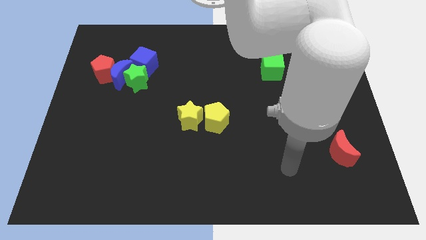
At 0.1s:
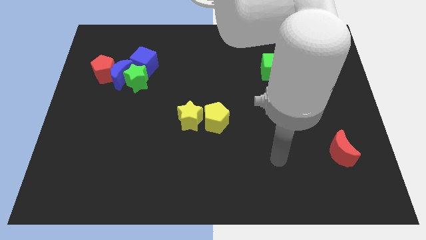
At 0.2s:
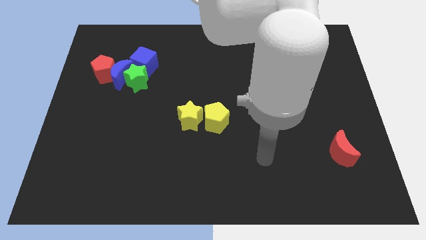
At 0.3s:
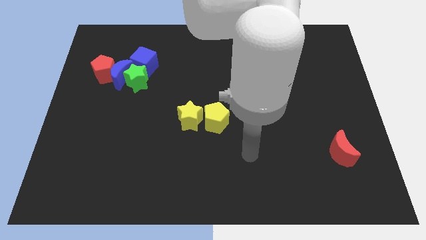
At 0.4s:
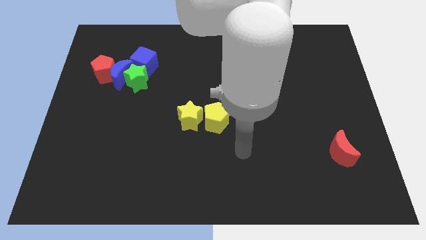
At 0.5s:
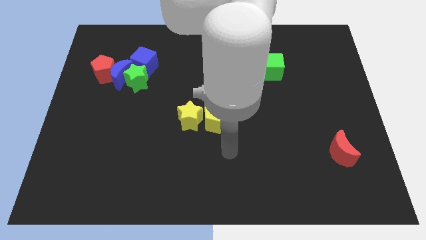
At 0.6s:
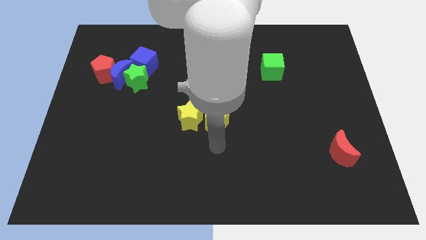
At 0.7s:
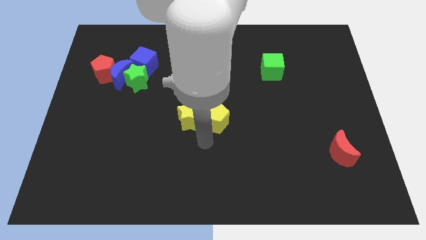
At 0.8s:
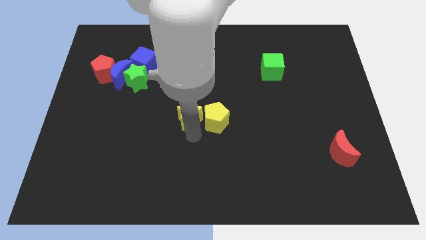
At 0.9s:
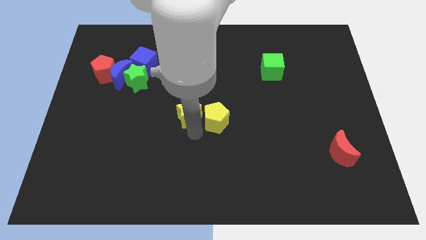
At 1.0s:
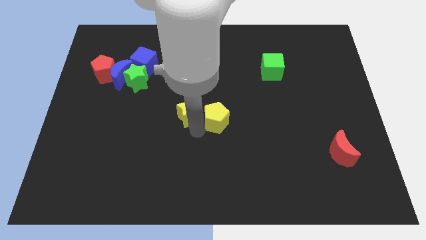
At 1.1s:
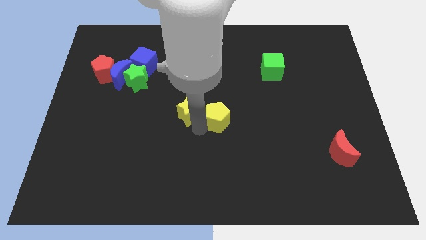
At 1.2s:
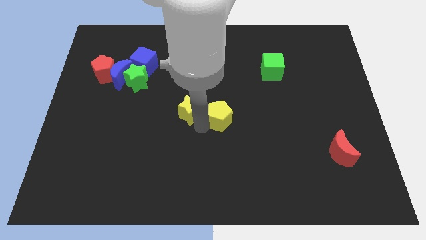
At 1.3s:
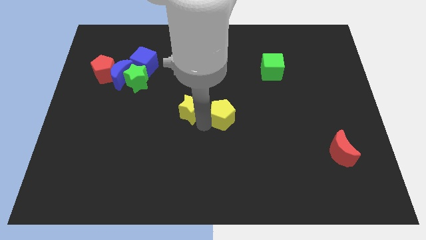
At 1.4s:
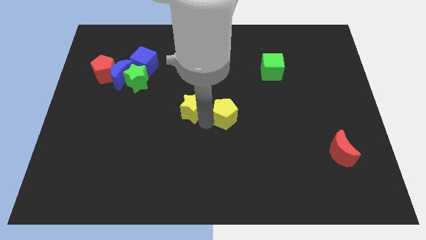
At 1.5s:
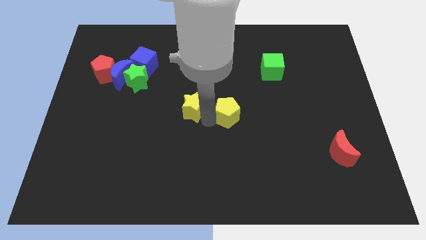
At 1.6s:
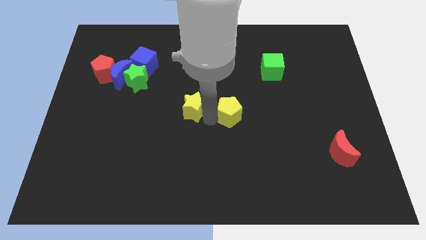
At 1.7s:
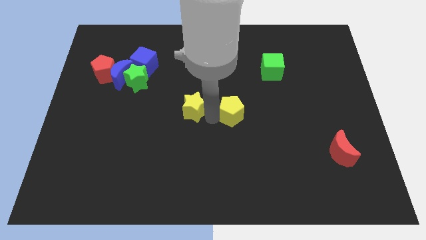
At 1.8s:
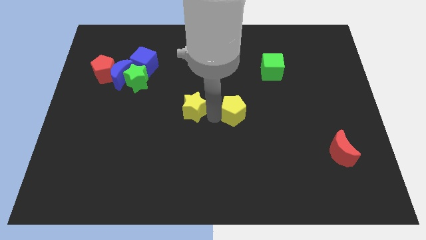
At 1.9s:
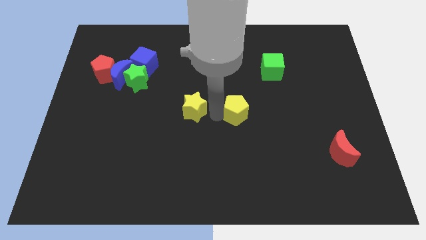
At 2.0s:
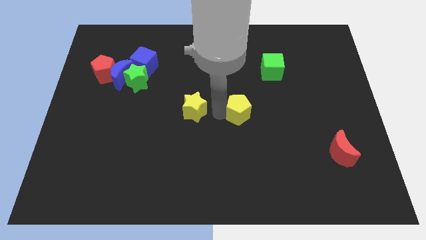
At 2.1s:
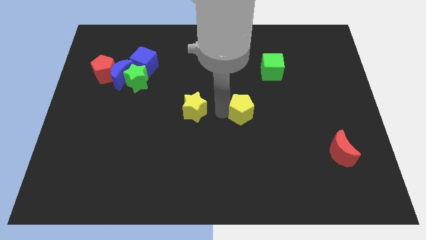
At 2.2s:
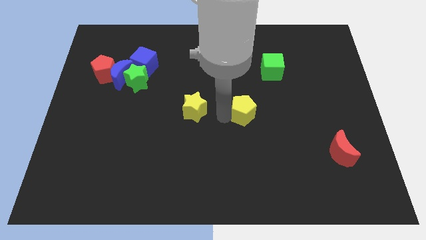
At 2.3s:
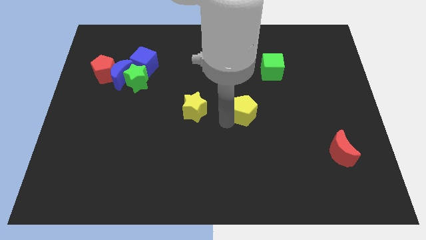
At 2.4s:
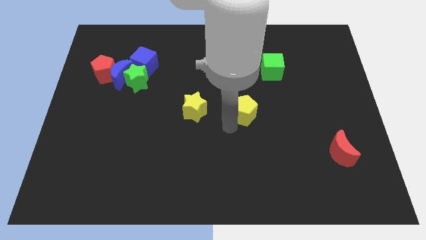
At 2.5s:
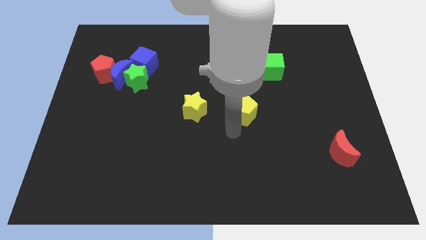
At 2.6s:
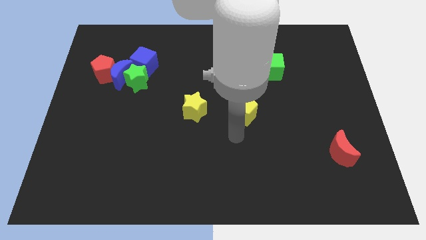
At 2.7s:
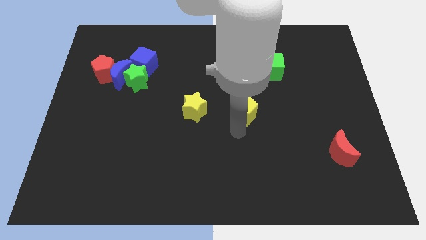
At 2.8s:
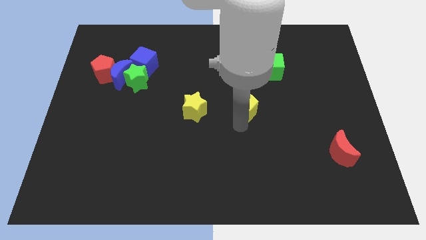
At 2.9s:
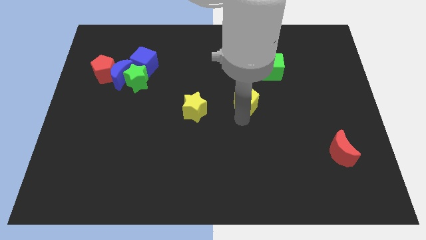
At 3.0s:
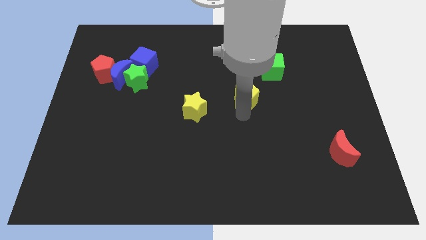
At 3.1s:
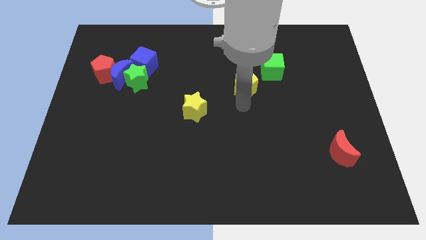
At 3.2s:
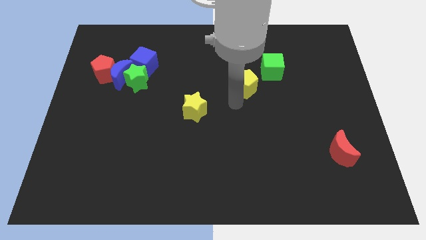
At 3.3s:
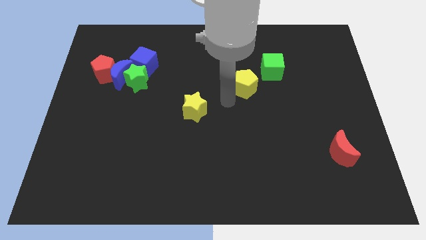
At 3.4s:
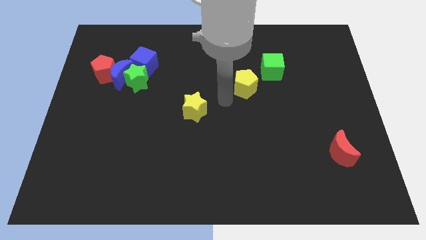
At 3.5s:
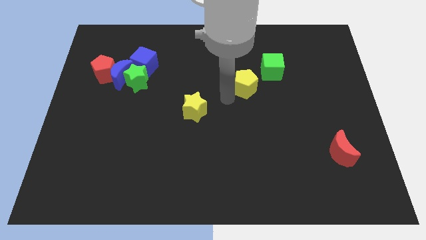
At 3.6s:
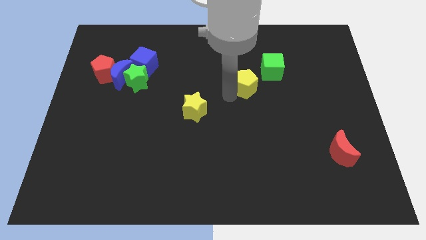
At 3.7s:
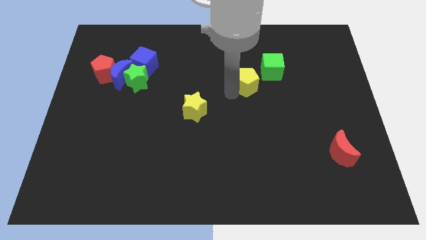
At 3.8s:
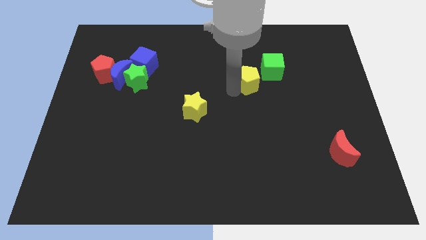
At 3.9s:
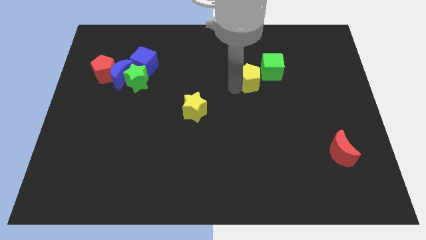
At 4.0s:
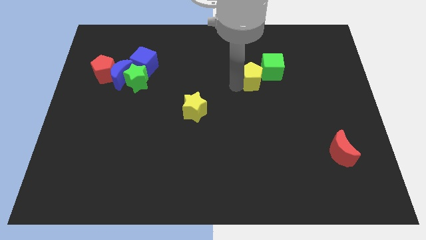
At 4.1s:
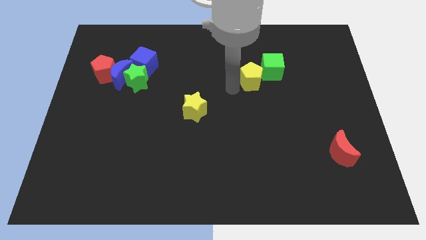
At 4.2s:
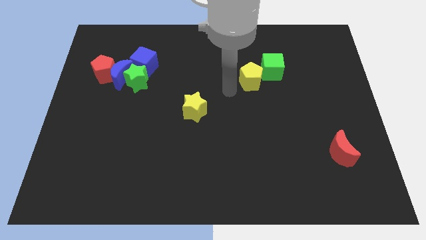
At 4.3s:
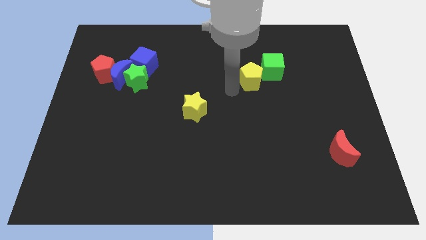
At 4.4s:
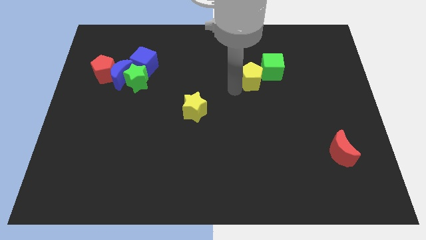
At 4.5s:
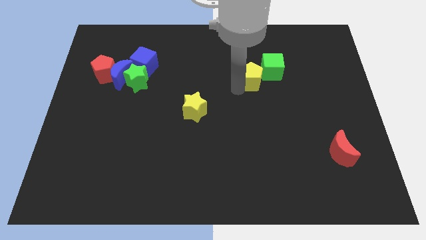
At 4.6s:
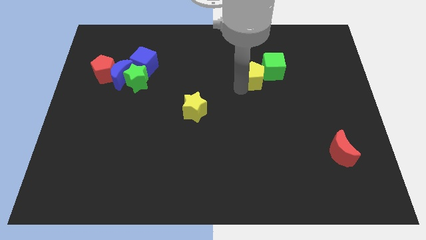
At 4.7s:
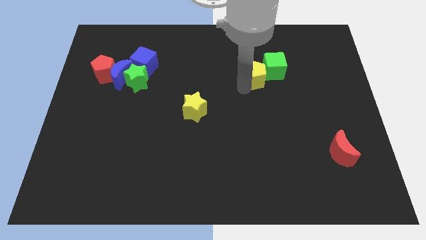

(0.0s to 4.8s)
move the yellow pentagon next to the green cube

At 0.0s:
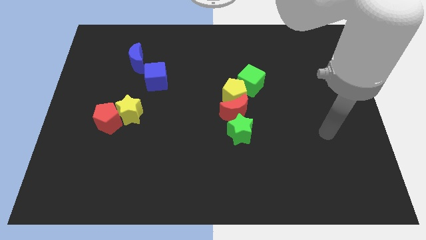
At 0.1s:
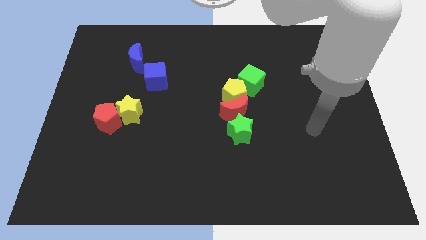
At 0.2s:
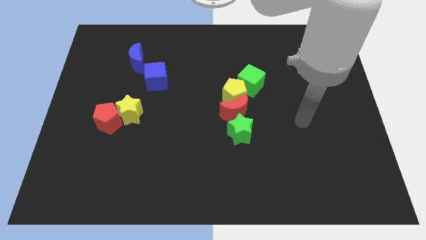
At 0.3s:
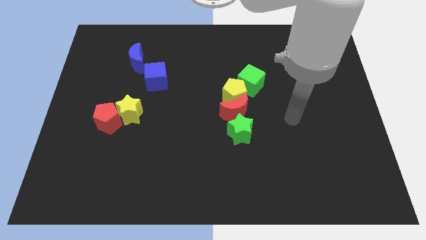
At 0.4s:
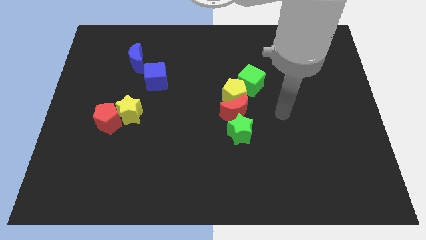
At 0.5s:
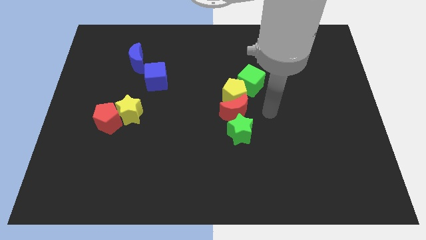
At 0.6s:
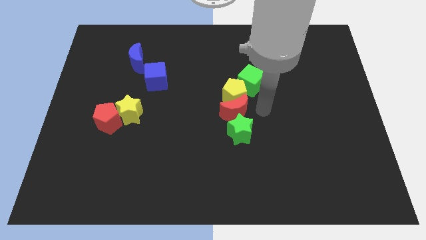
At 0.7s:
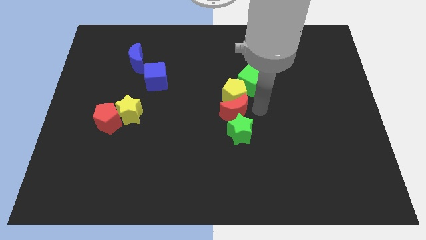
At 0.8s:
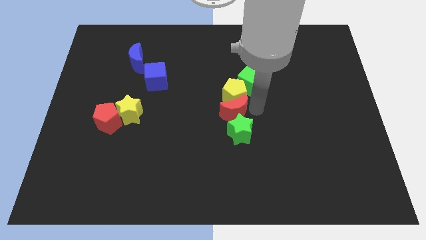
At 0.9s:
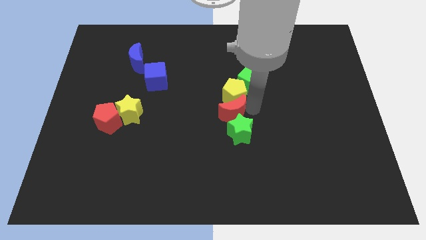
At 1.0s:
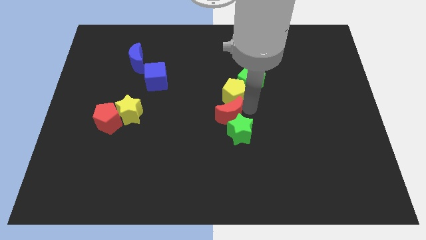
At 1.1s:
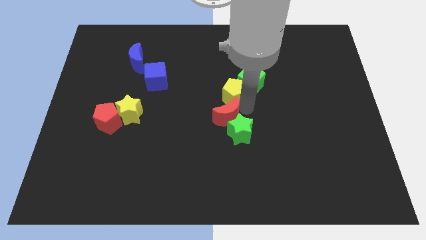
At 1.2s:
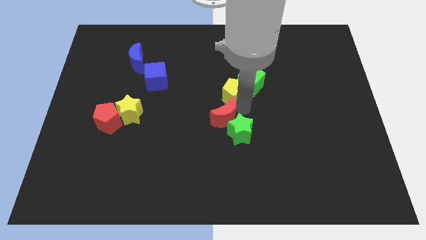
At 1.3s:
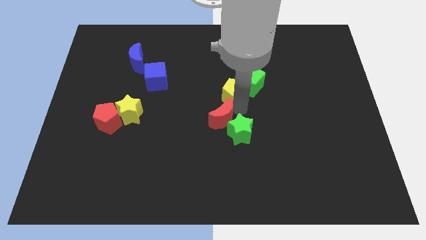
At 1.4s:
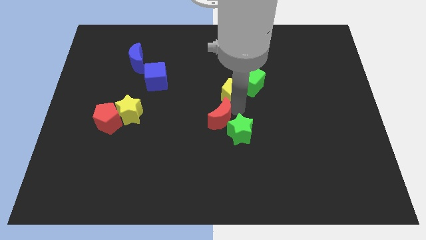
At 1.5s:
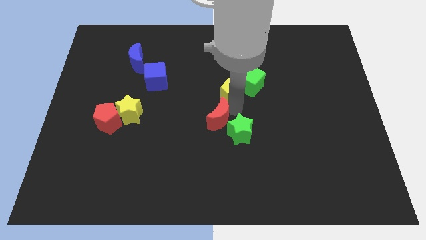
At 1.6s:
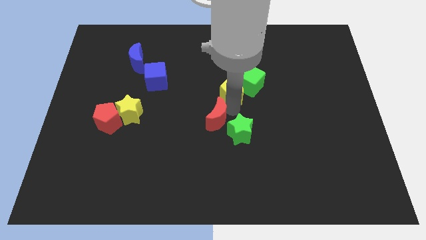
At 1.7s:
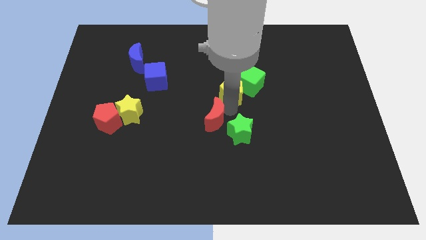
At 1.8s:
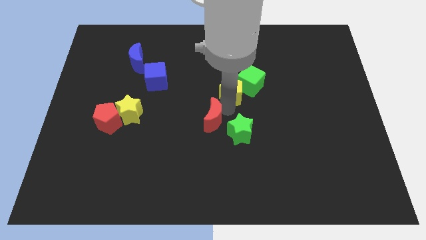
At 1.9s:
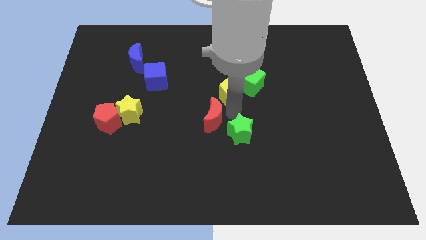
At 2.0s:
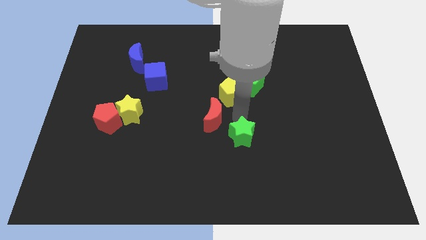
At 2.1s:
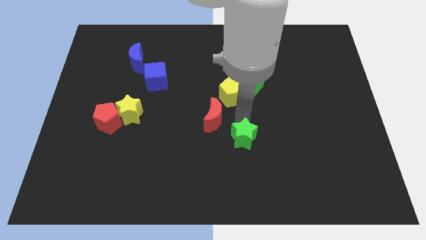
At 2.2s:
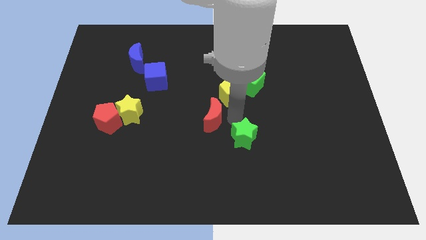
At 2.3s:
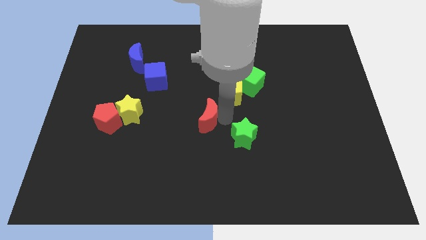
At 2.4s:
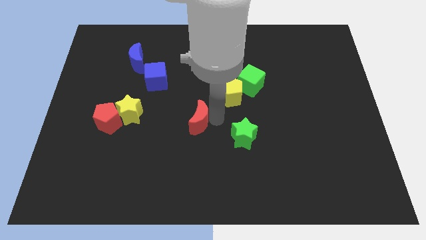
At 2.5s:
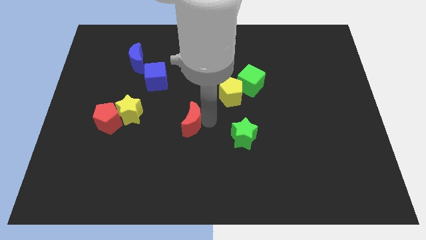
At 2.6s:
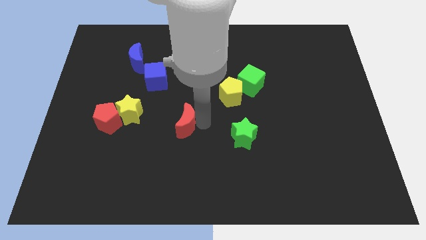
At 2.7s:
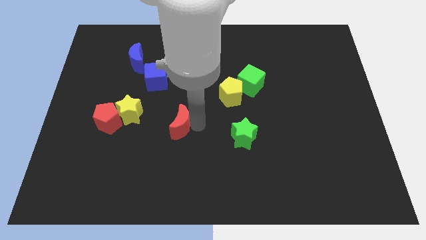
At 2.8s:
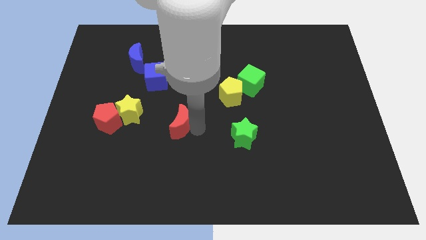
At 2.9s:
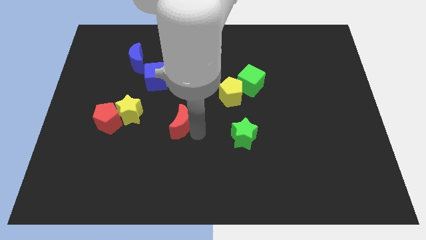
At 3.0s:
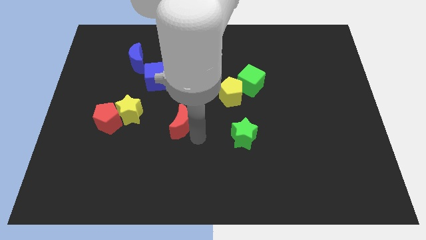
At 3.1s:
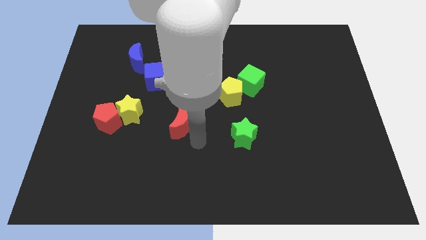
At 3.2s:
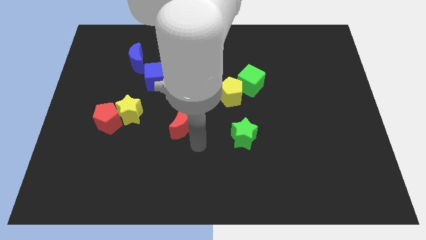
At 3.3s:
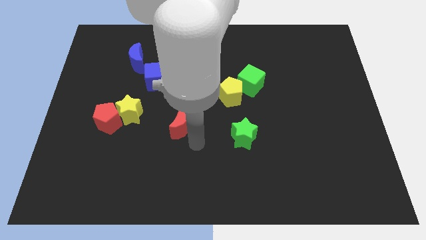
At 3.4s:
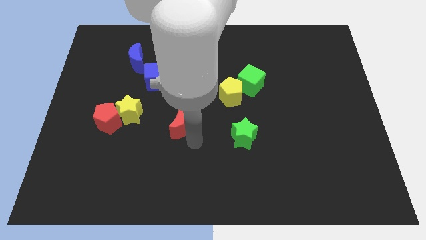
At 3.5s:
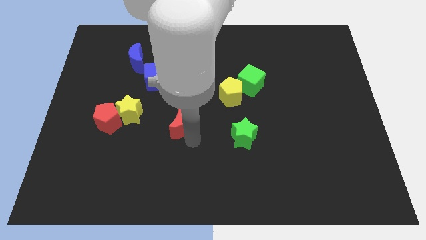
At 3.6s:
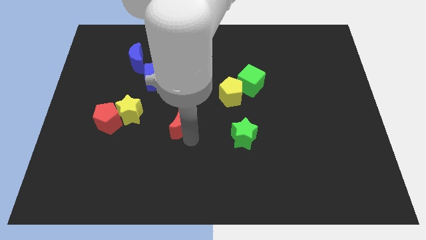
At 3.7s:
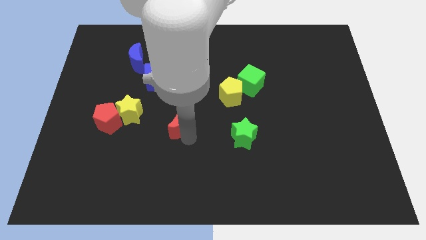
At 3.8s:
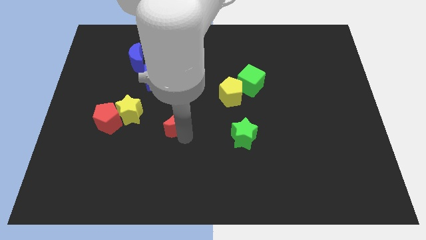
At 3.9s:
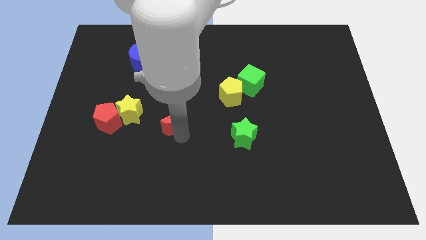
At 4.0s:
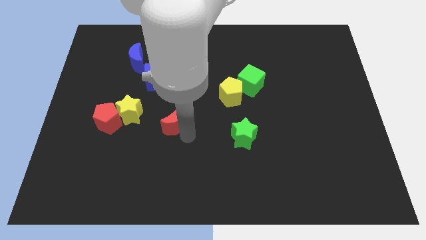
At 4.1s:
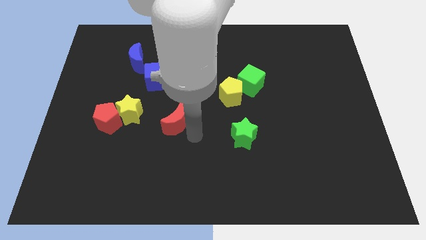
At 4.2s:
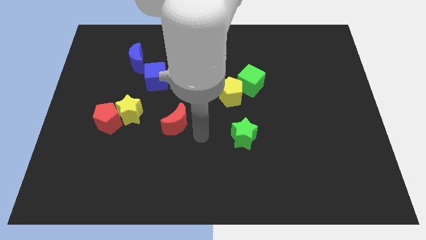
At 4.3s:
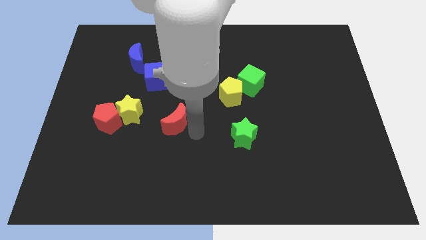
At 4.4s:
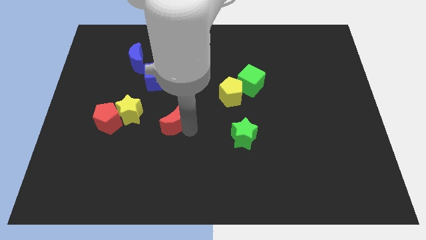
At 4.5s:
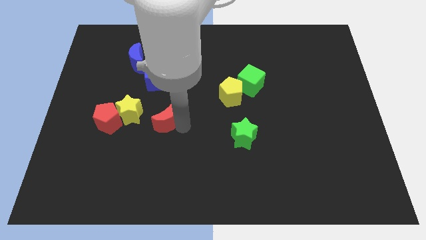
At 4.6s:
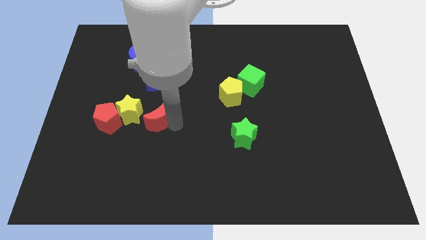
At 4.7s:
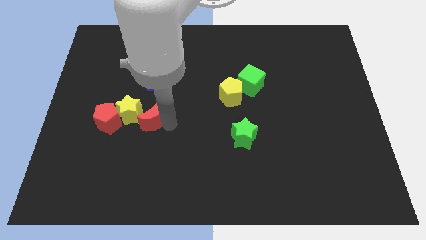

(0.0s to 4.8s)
slide the red moon next to the yellow star
